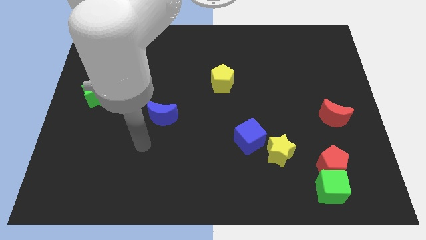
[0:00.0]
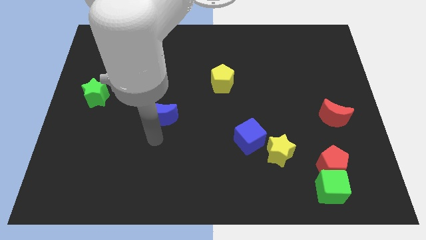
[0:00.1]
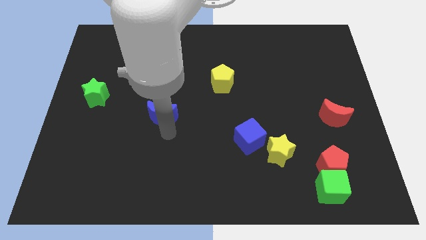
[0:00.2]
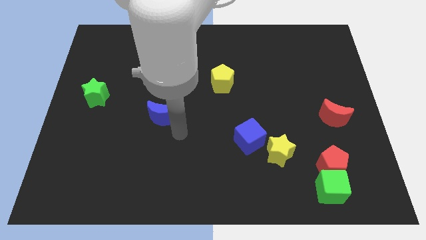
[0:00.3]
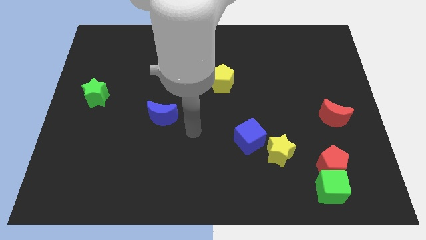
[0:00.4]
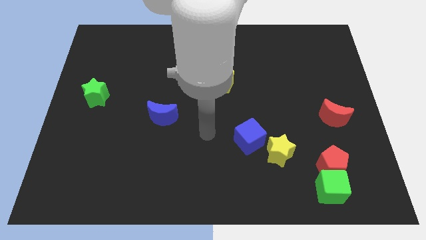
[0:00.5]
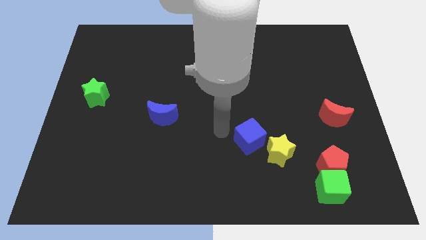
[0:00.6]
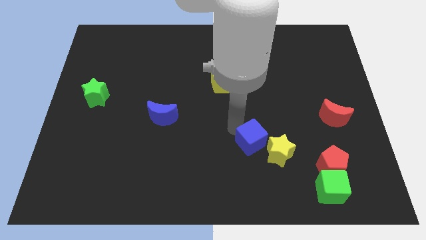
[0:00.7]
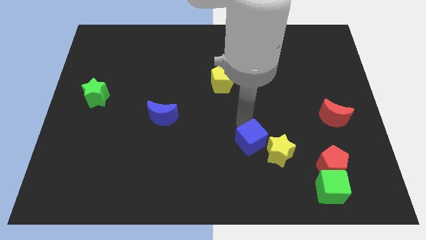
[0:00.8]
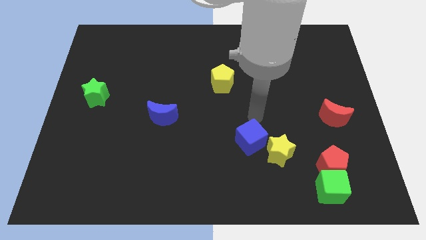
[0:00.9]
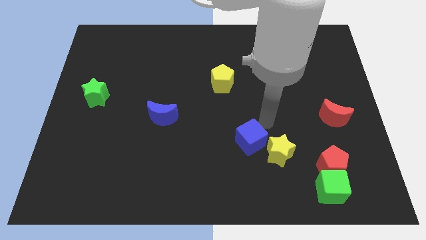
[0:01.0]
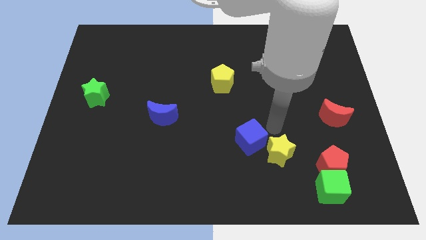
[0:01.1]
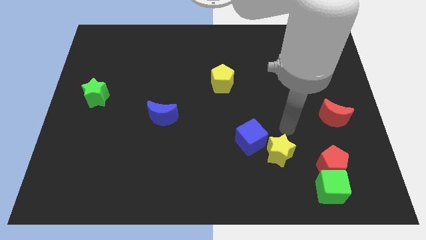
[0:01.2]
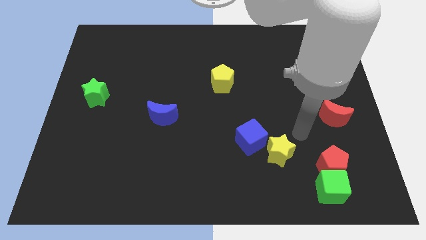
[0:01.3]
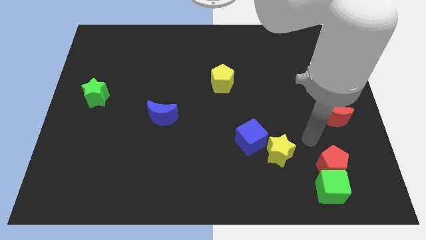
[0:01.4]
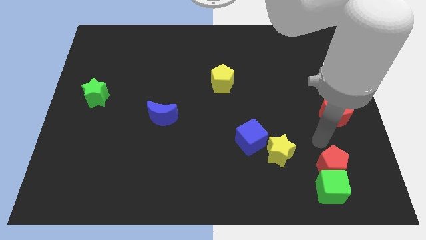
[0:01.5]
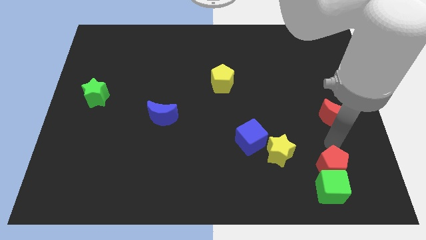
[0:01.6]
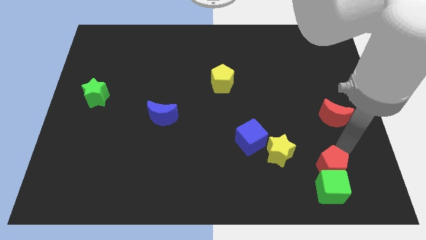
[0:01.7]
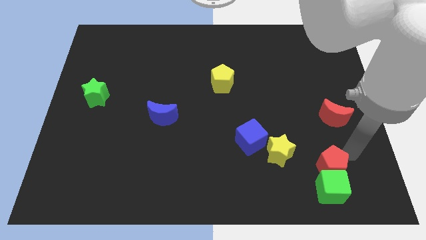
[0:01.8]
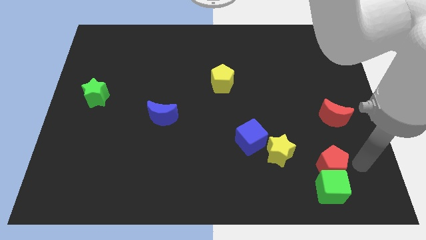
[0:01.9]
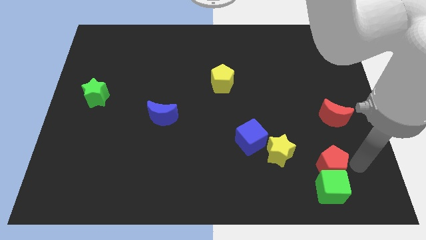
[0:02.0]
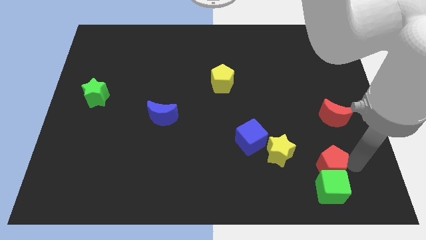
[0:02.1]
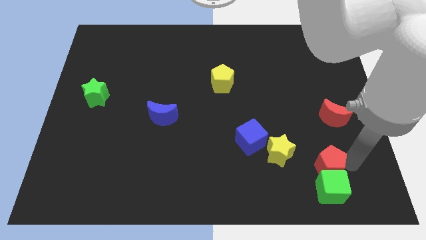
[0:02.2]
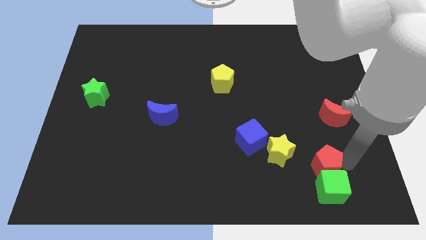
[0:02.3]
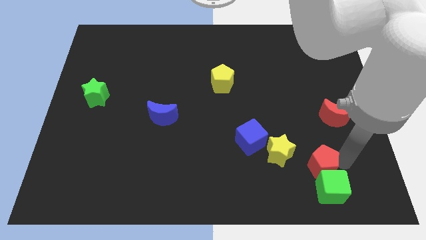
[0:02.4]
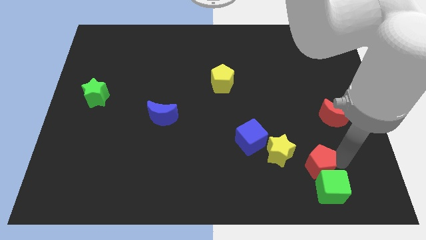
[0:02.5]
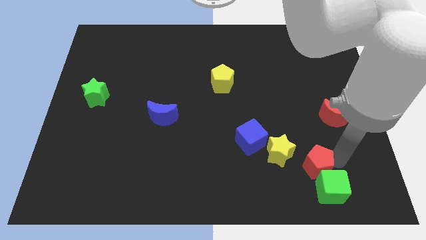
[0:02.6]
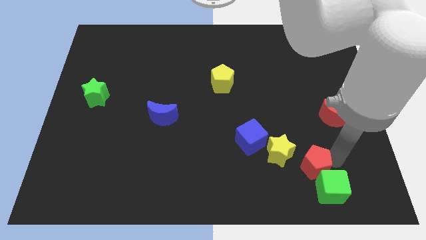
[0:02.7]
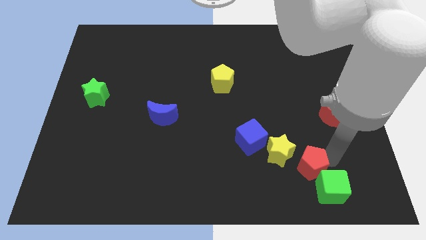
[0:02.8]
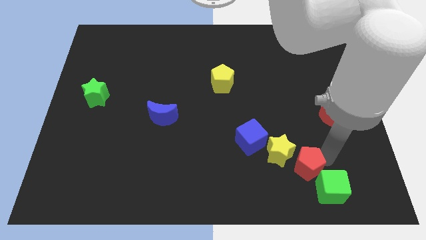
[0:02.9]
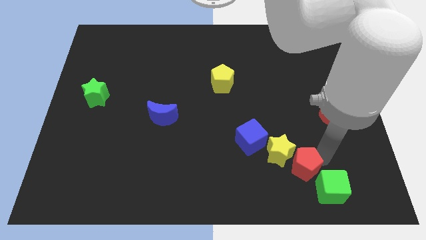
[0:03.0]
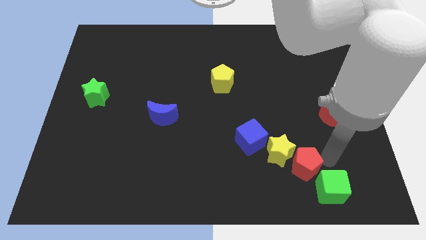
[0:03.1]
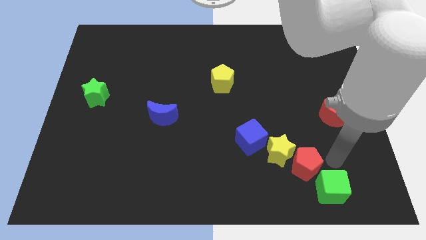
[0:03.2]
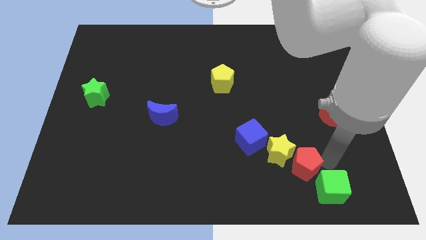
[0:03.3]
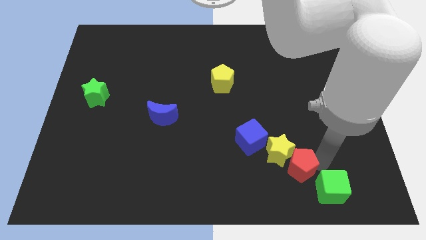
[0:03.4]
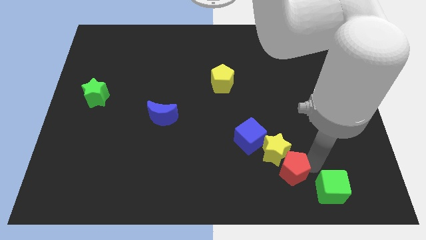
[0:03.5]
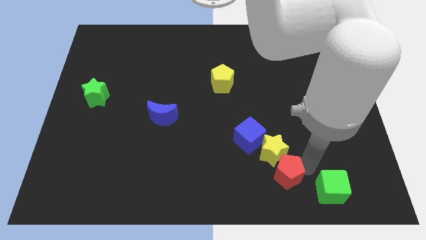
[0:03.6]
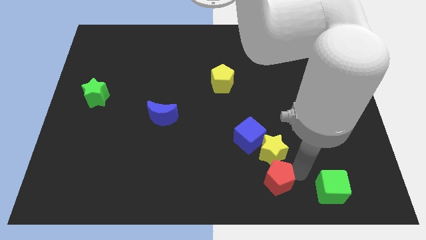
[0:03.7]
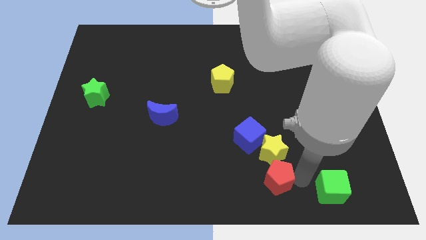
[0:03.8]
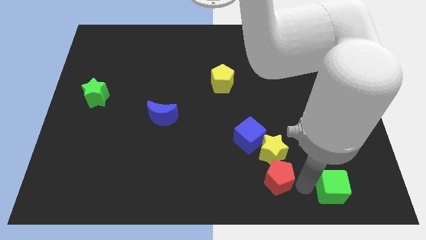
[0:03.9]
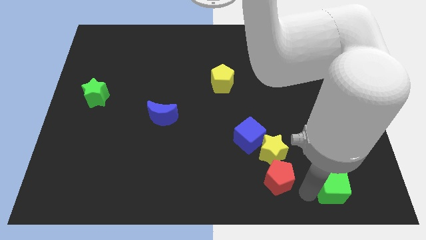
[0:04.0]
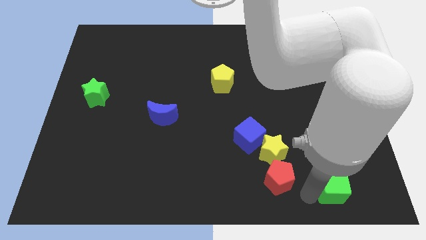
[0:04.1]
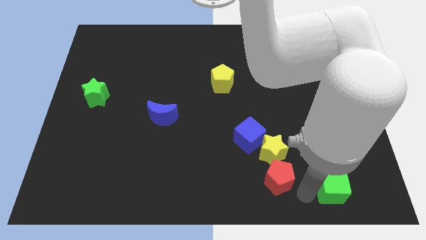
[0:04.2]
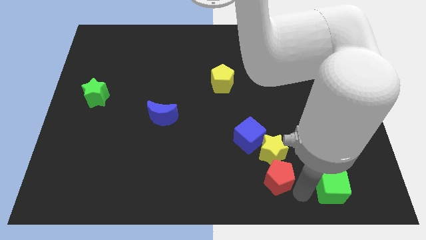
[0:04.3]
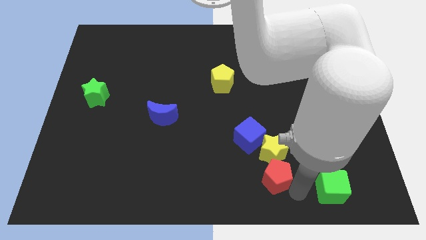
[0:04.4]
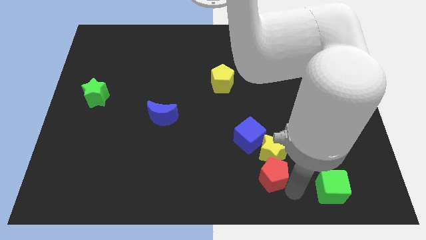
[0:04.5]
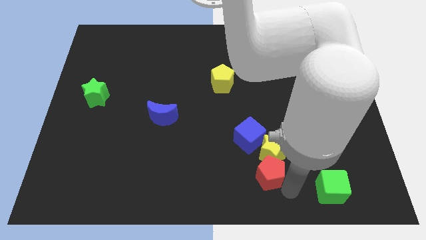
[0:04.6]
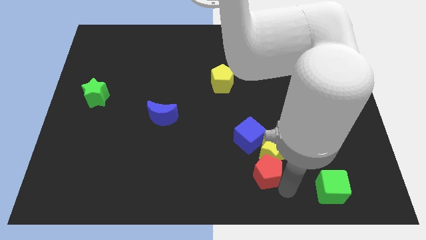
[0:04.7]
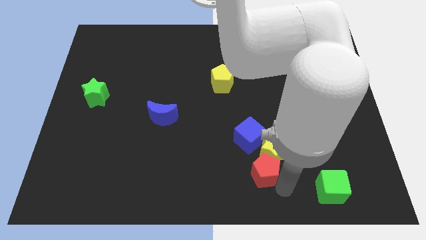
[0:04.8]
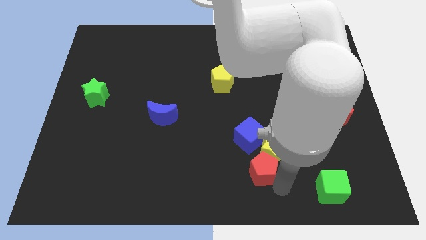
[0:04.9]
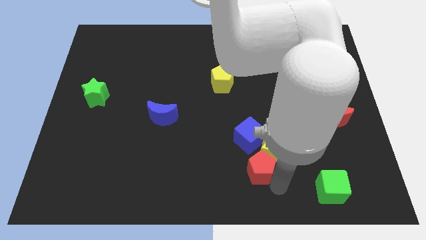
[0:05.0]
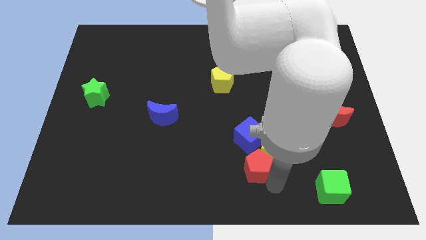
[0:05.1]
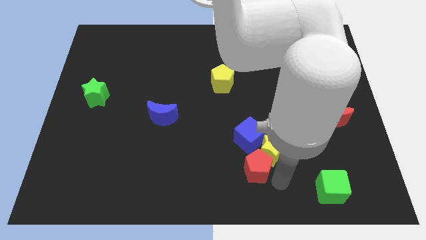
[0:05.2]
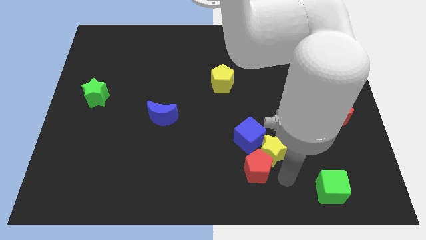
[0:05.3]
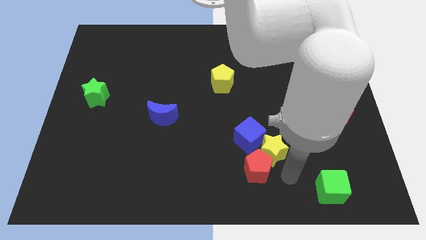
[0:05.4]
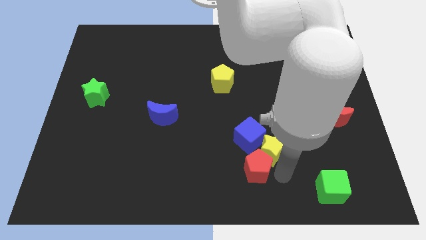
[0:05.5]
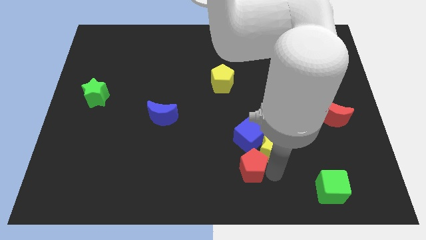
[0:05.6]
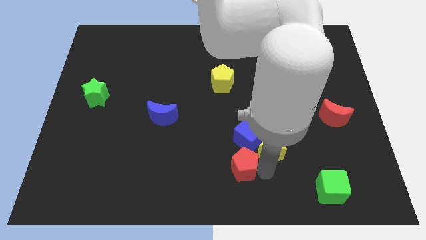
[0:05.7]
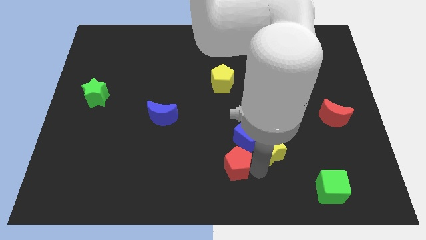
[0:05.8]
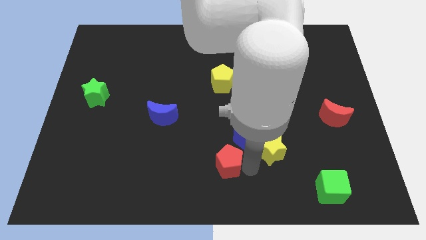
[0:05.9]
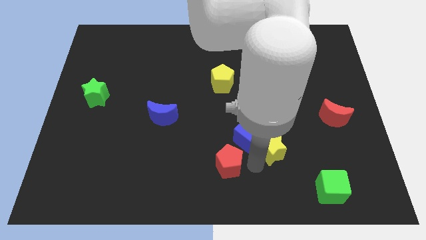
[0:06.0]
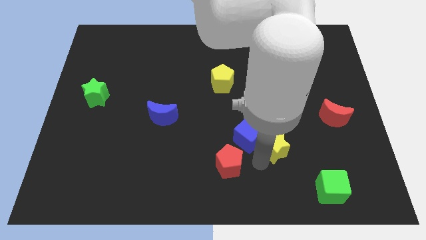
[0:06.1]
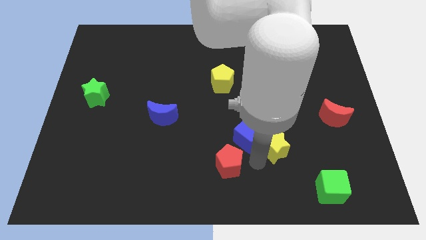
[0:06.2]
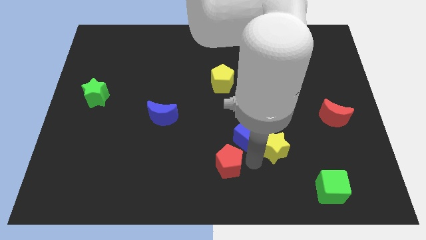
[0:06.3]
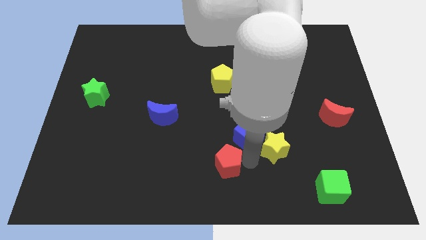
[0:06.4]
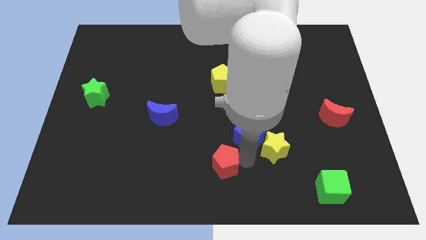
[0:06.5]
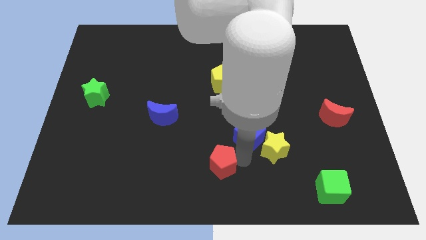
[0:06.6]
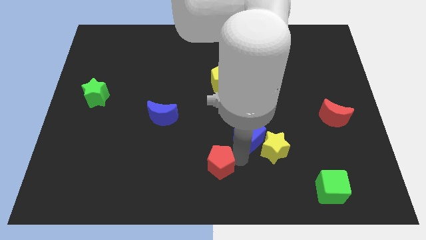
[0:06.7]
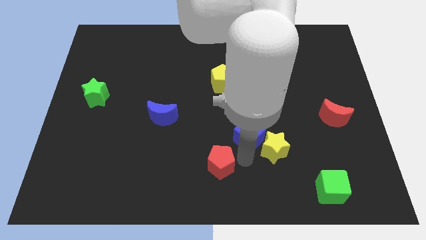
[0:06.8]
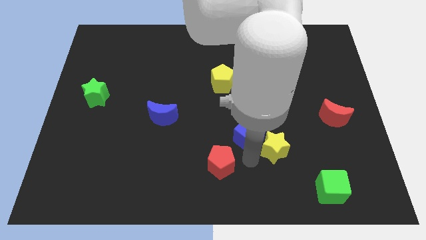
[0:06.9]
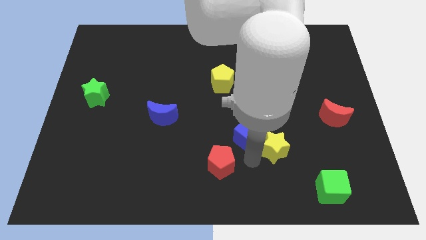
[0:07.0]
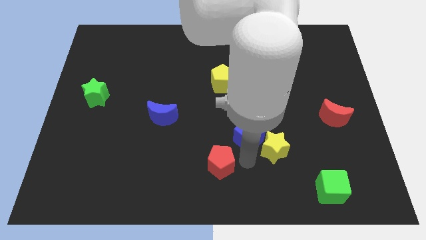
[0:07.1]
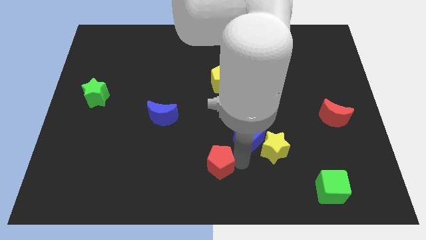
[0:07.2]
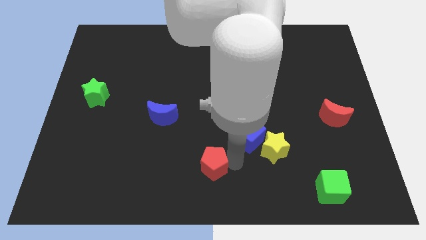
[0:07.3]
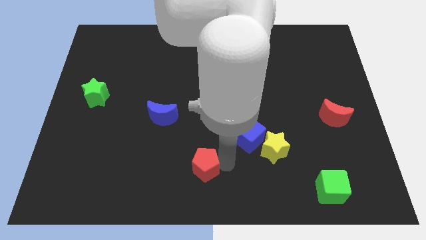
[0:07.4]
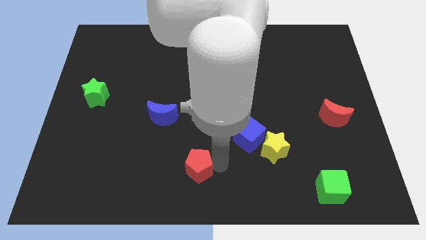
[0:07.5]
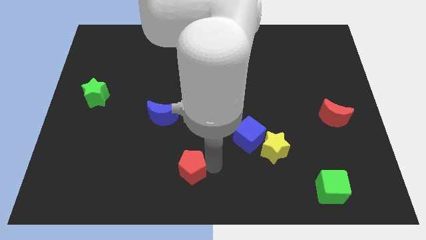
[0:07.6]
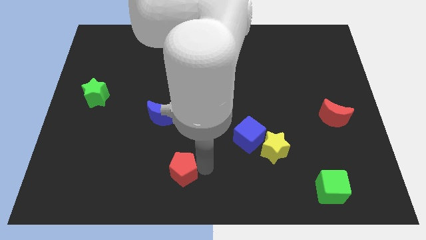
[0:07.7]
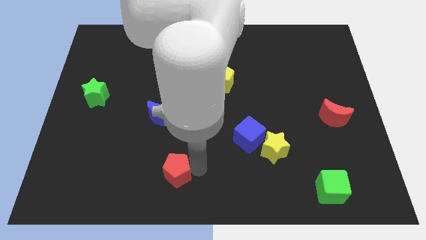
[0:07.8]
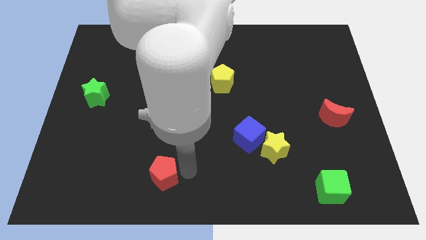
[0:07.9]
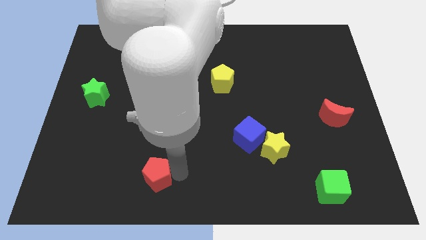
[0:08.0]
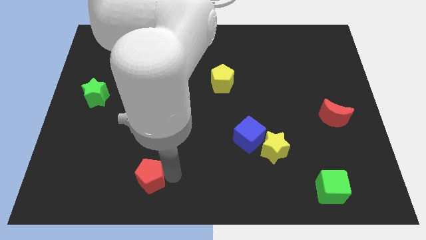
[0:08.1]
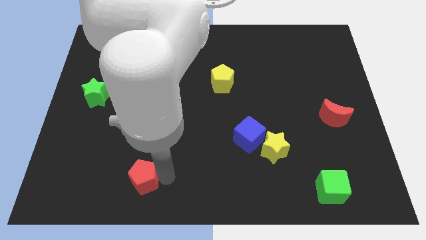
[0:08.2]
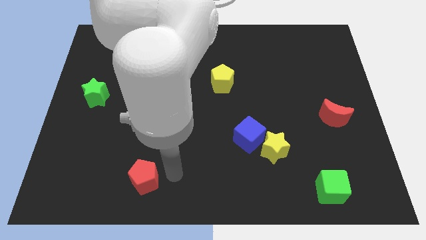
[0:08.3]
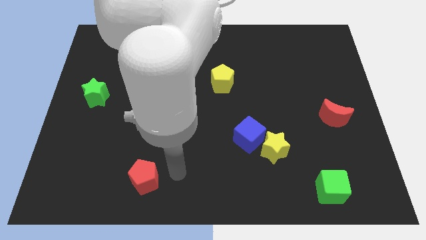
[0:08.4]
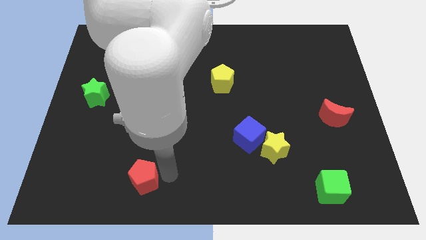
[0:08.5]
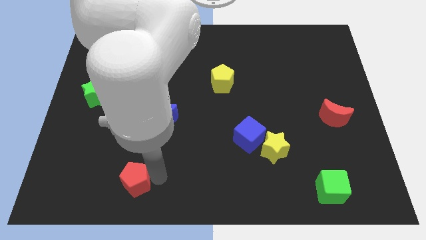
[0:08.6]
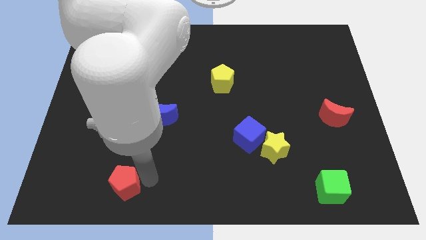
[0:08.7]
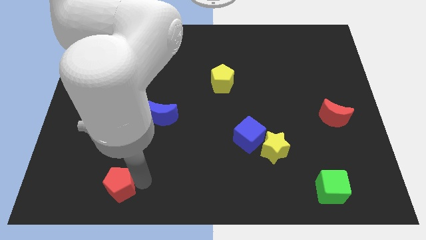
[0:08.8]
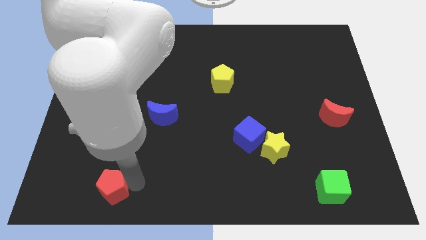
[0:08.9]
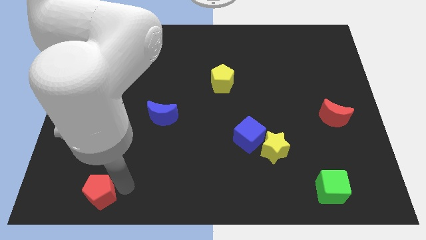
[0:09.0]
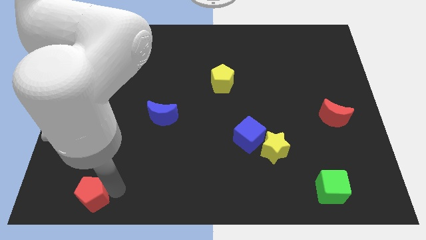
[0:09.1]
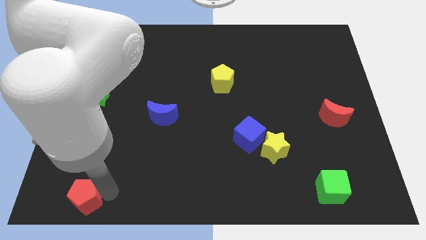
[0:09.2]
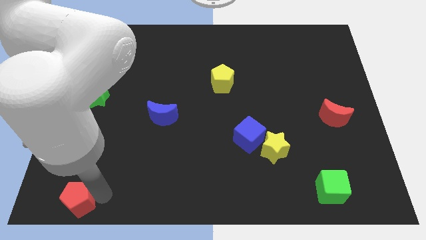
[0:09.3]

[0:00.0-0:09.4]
slide the red pentagon to the bottom left of the board
